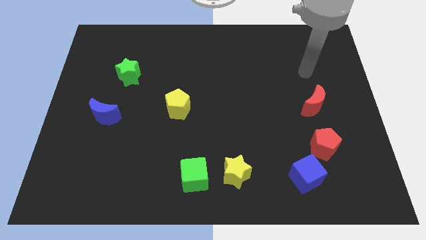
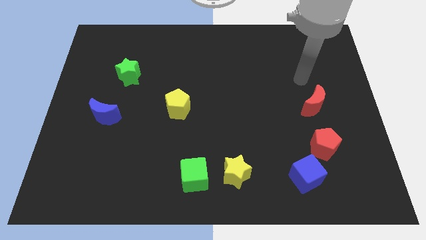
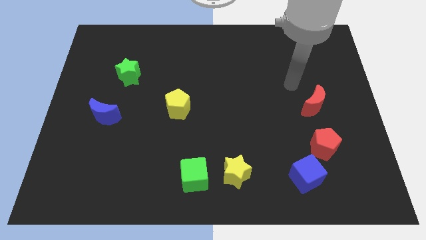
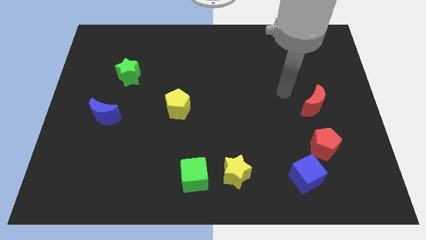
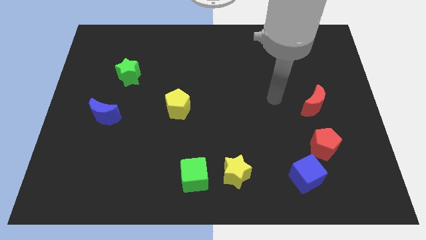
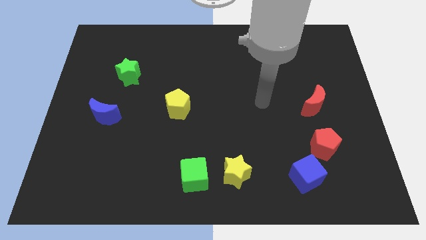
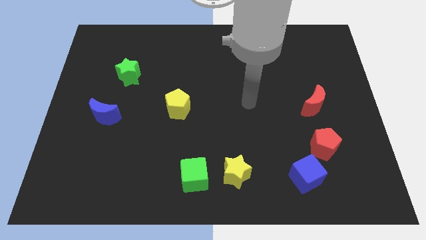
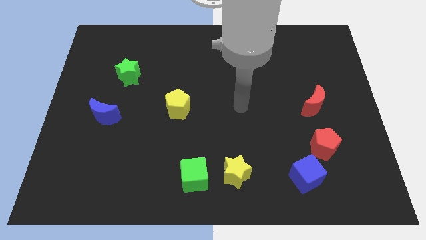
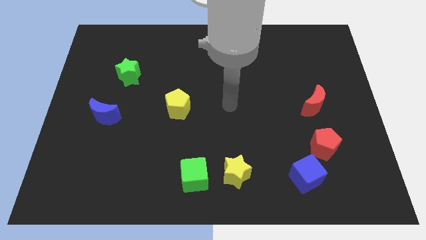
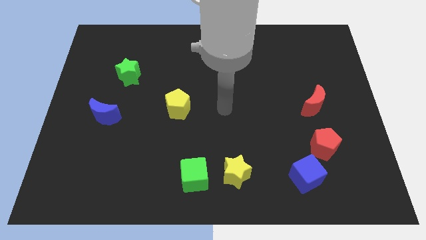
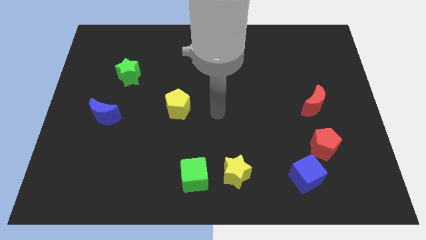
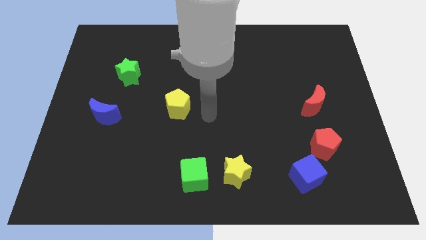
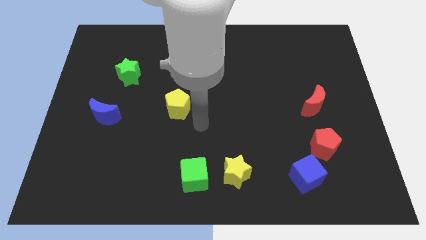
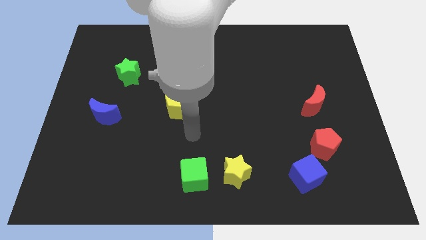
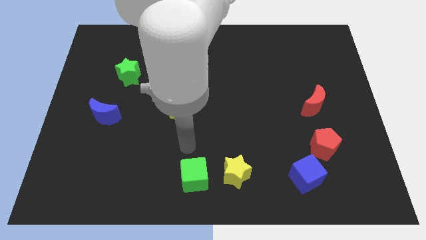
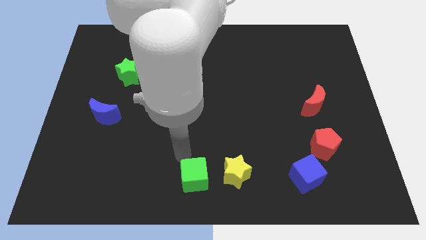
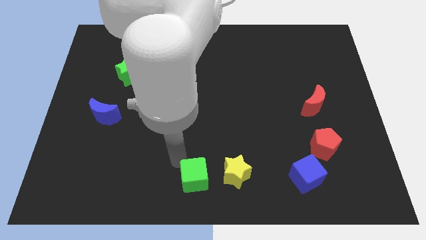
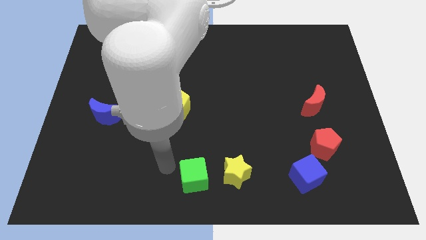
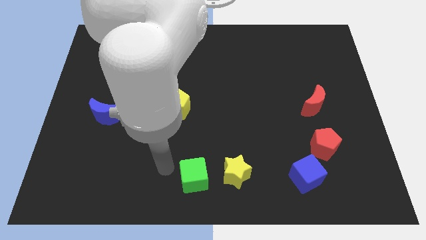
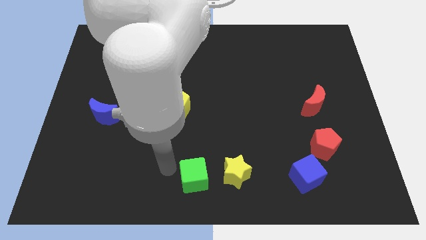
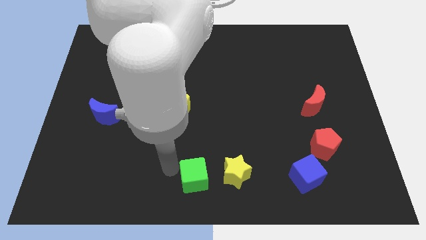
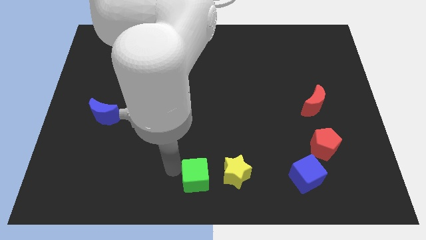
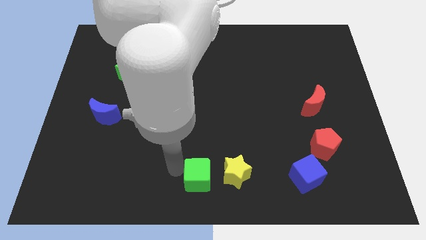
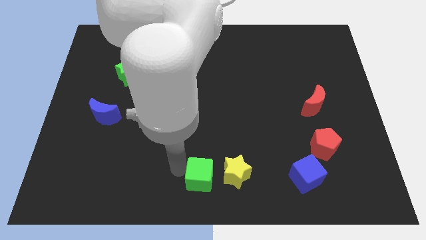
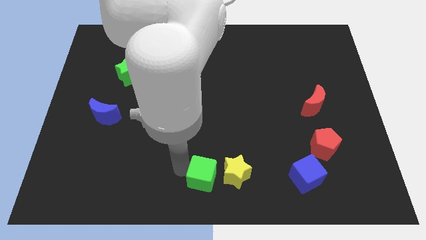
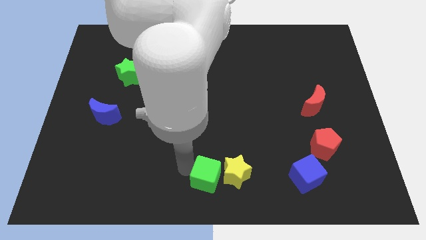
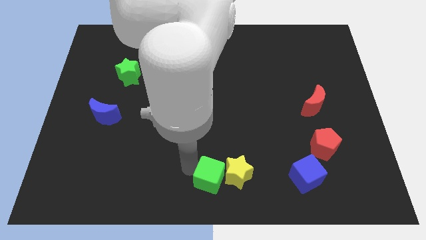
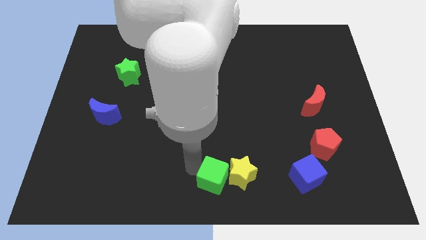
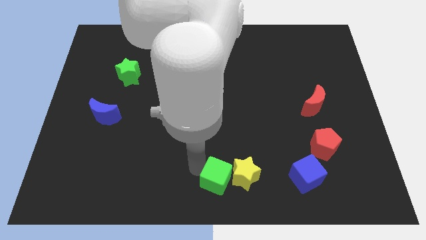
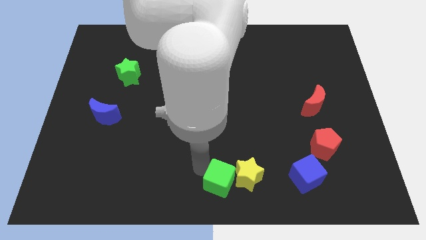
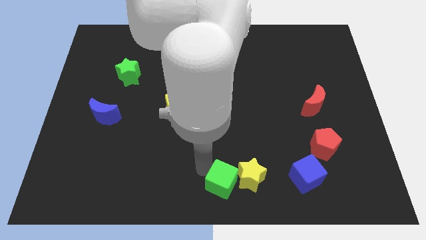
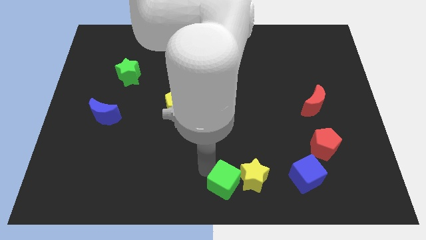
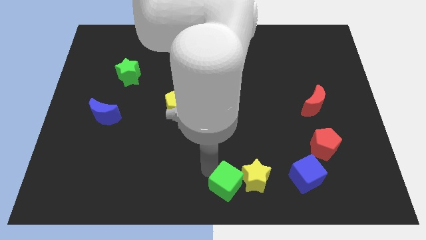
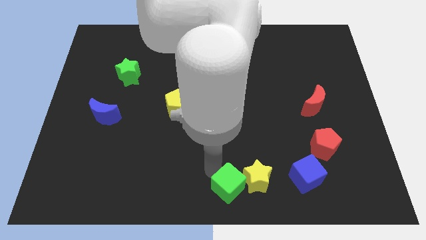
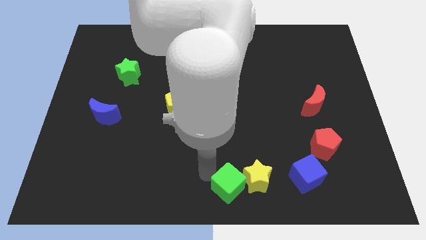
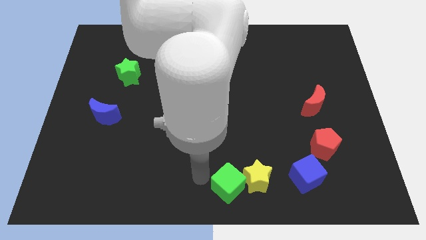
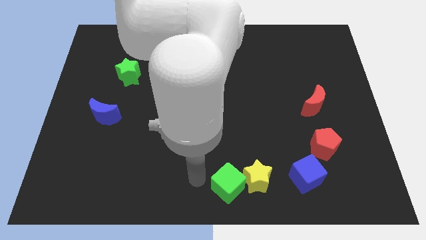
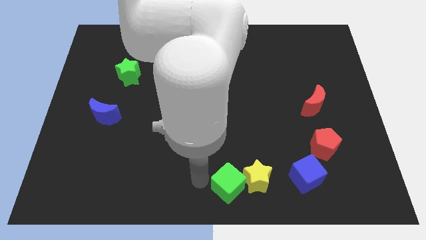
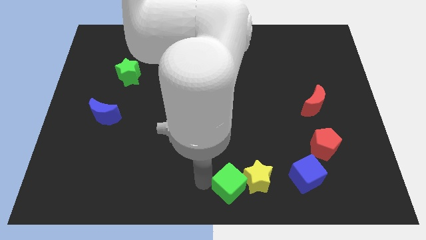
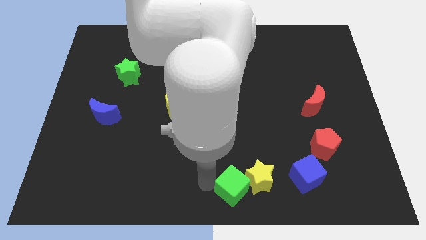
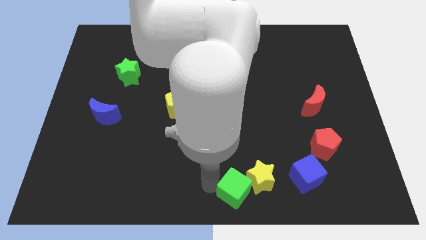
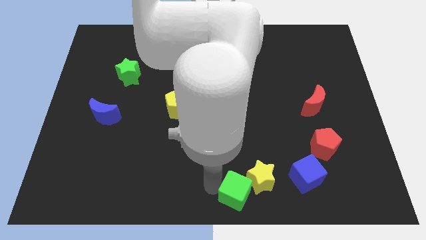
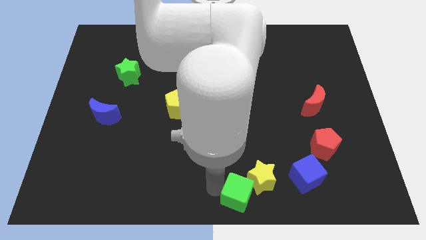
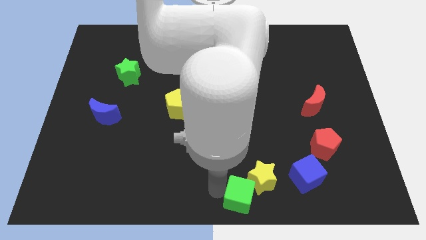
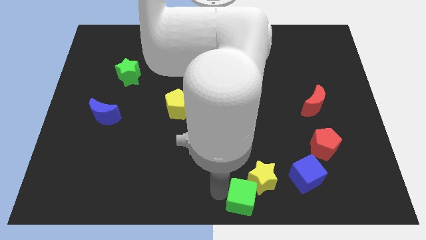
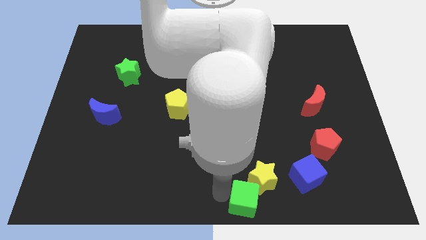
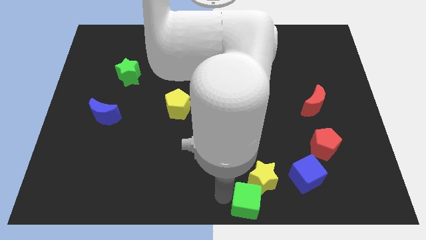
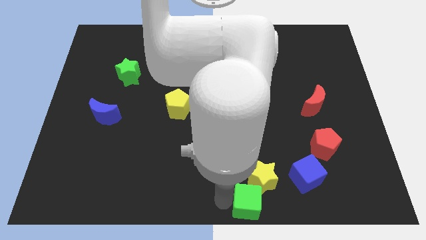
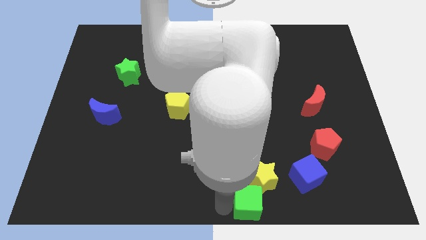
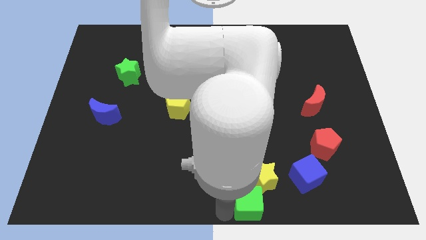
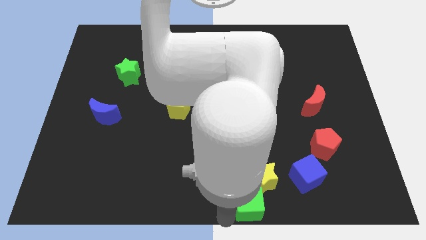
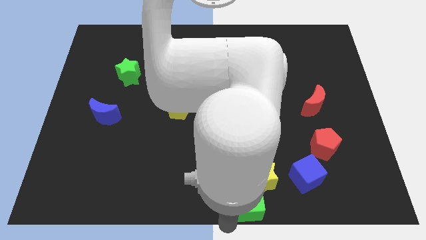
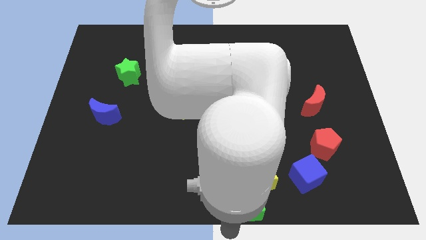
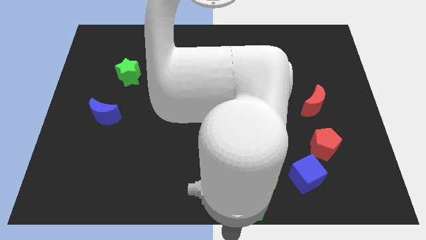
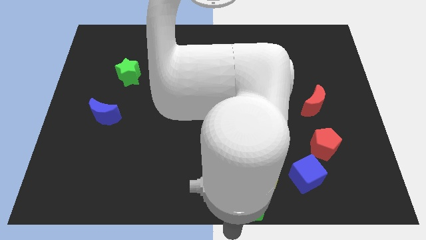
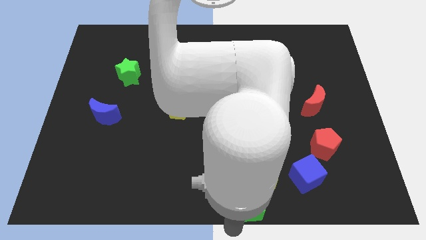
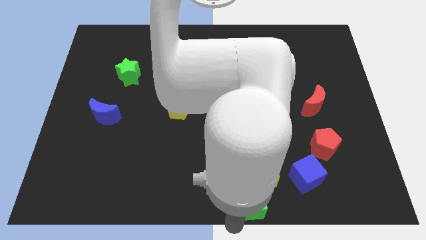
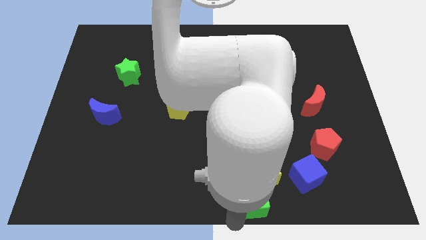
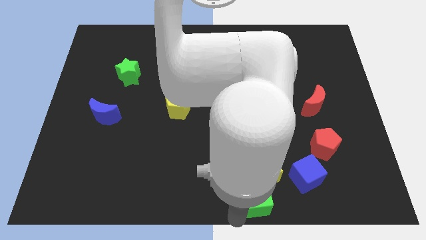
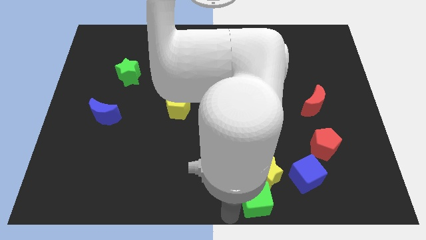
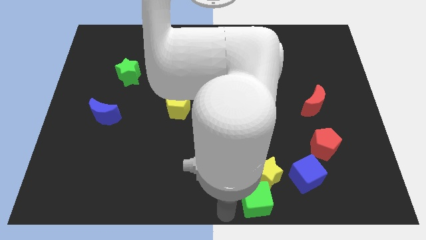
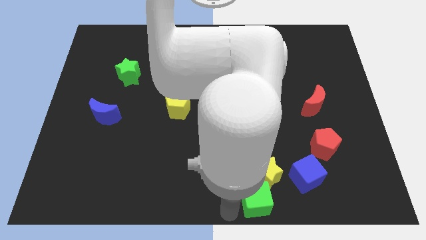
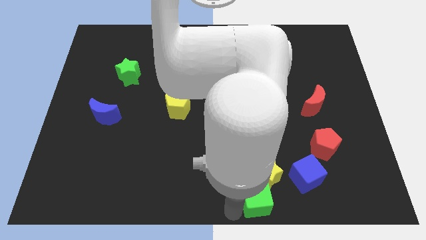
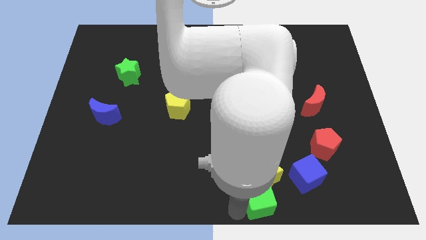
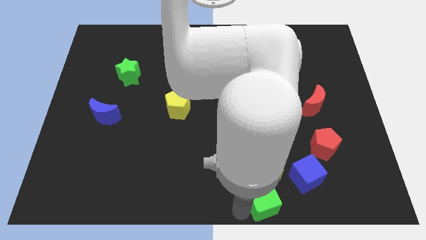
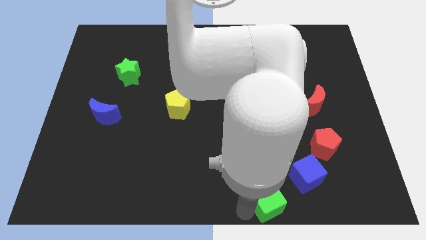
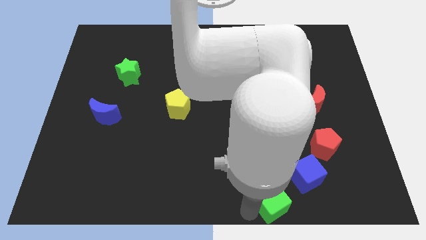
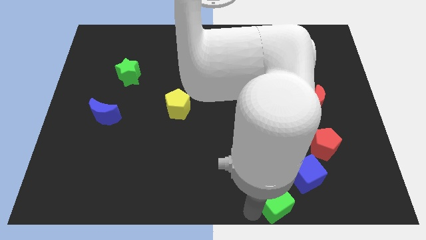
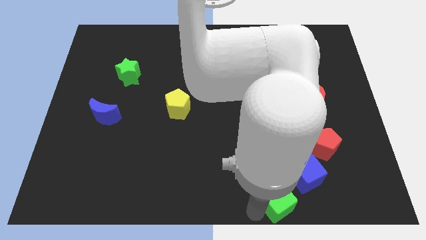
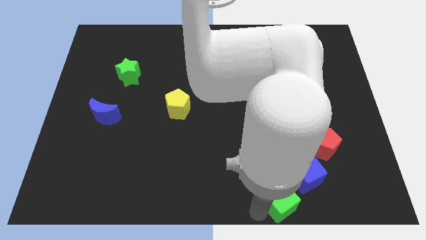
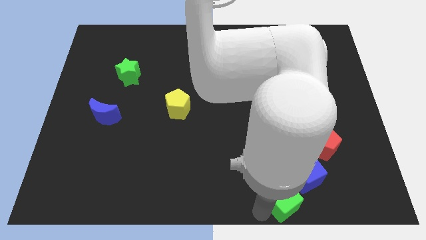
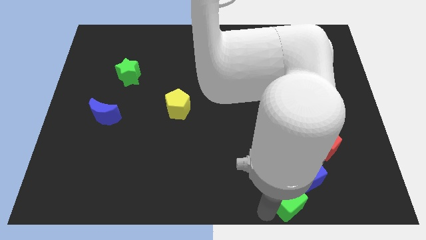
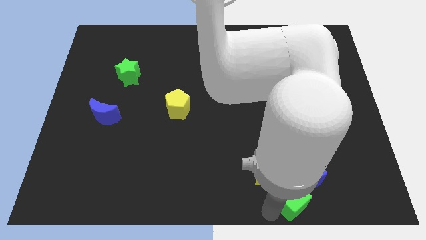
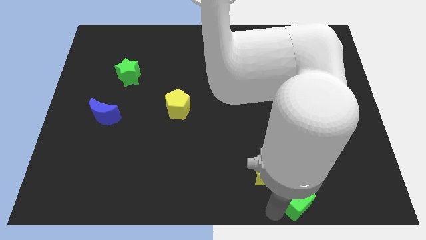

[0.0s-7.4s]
slide the green cube to the blue cube
